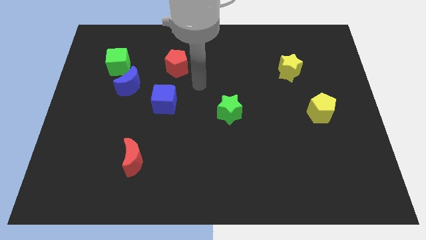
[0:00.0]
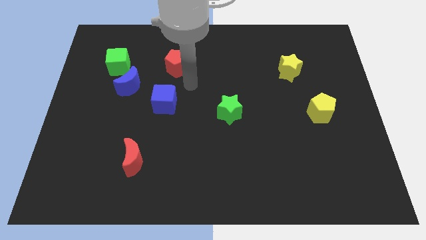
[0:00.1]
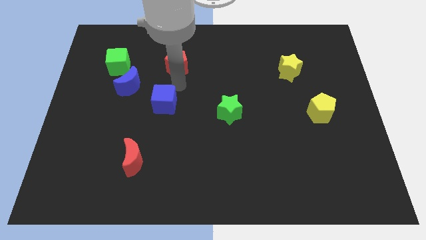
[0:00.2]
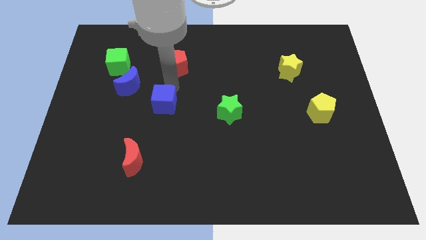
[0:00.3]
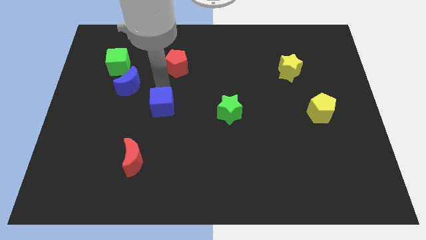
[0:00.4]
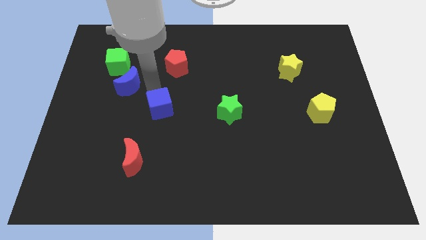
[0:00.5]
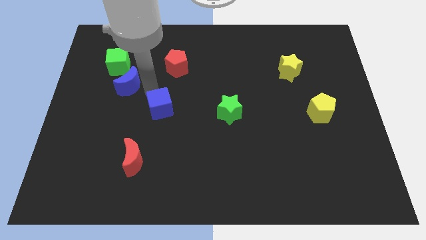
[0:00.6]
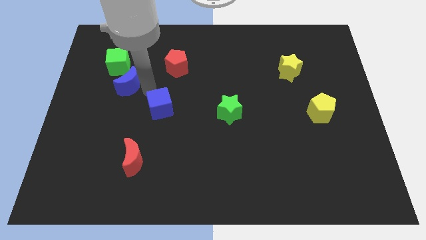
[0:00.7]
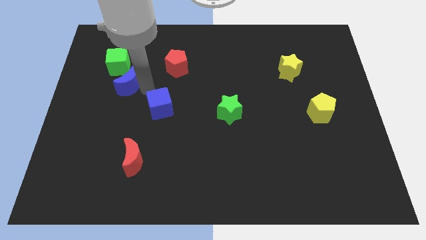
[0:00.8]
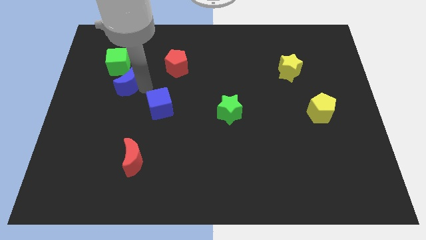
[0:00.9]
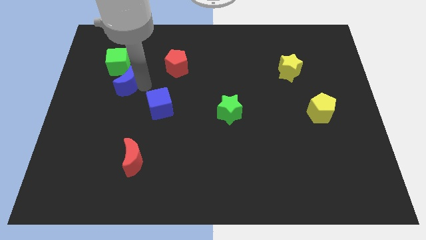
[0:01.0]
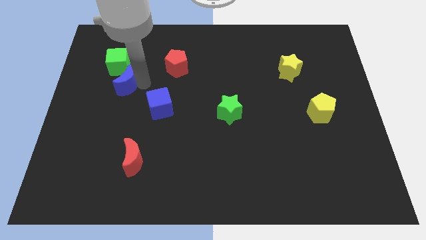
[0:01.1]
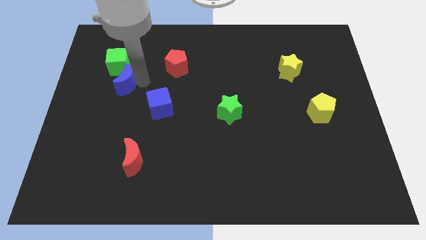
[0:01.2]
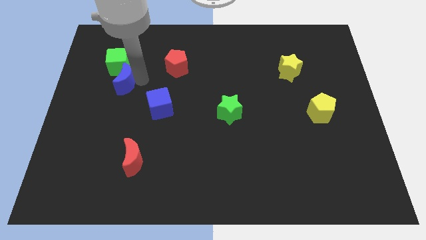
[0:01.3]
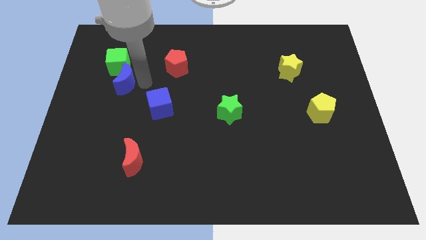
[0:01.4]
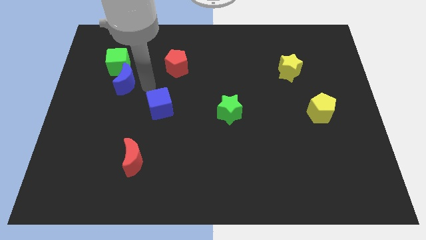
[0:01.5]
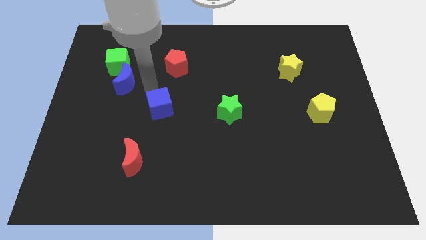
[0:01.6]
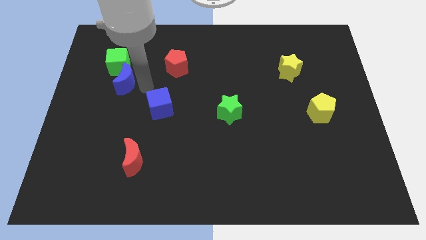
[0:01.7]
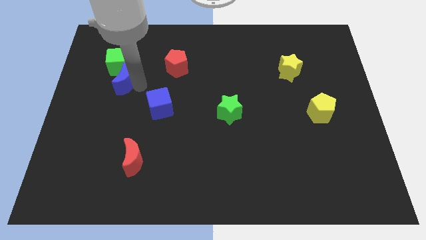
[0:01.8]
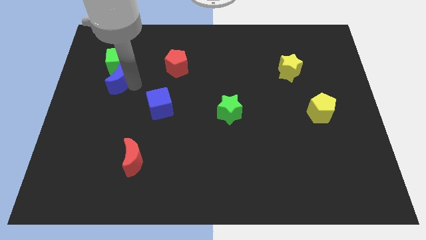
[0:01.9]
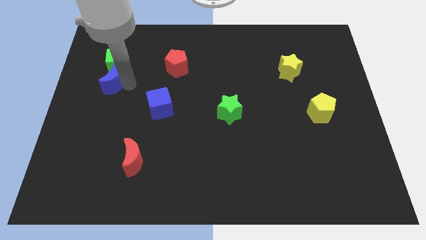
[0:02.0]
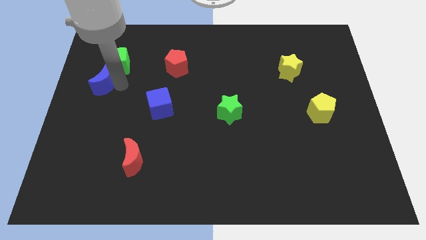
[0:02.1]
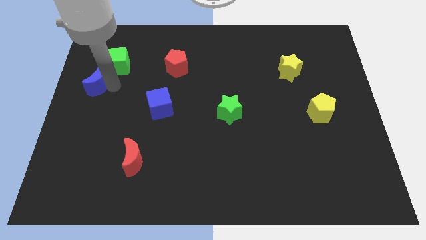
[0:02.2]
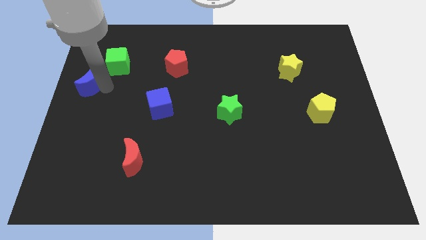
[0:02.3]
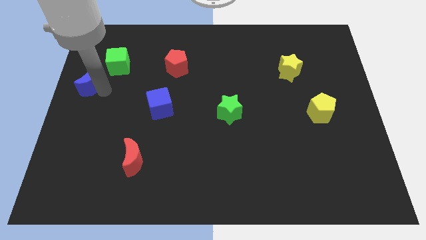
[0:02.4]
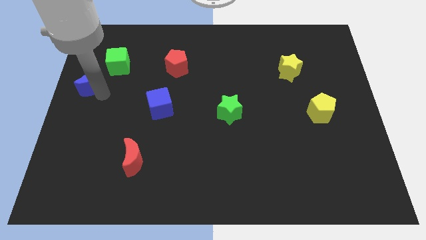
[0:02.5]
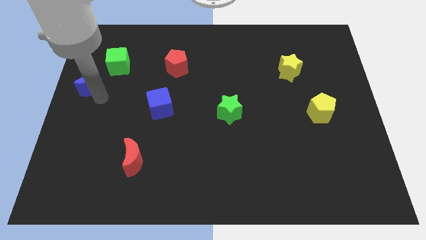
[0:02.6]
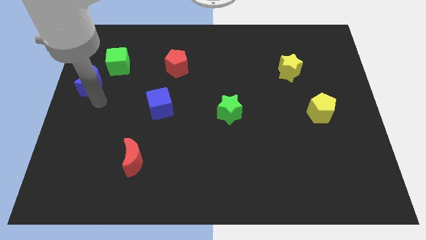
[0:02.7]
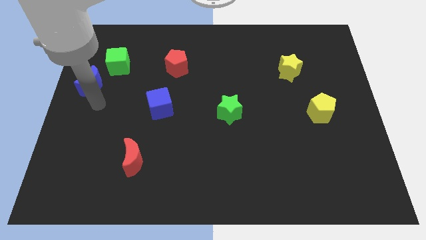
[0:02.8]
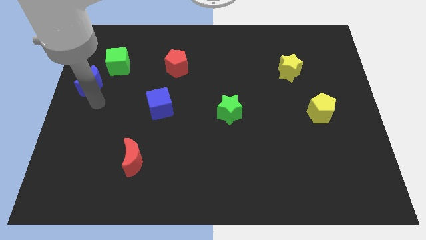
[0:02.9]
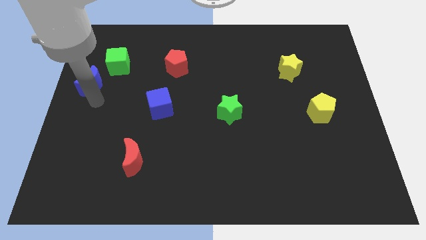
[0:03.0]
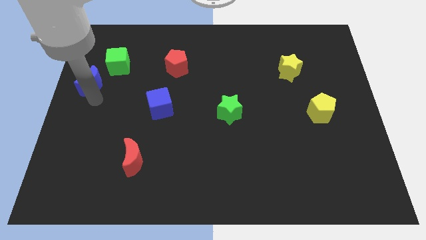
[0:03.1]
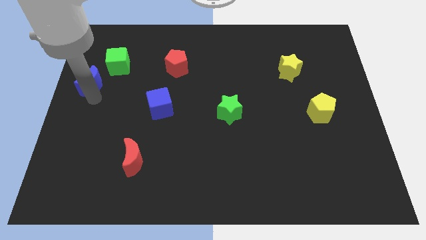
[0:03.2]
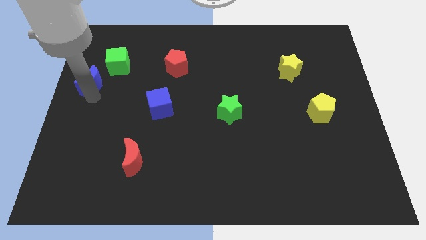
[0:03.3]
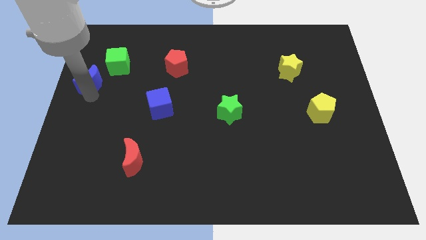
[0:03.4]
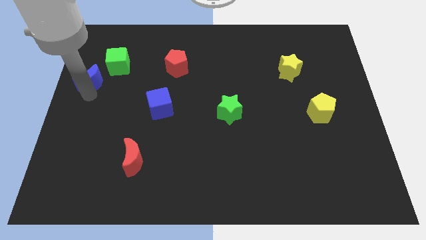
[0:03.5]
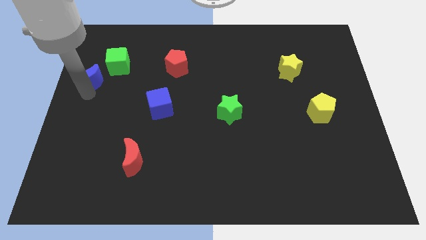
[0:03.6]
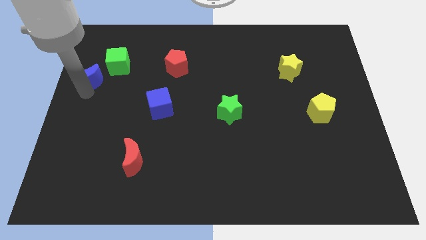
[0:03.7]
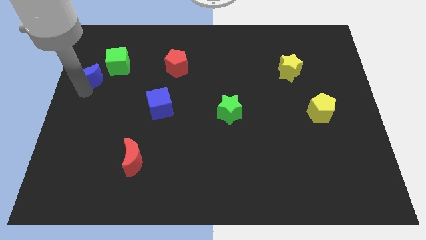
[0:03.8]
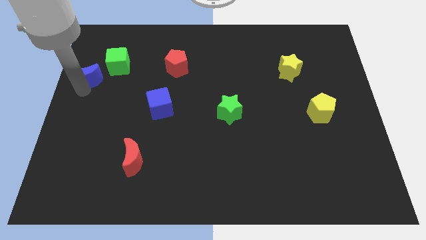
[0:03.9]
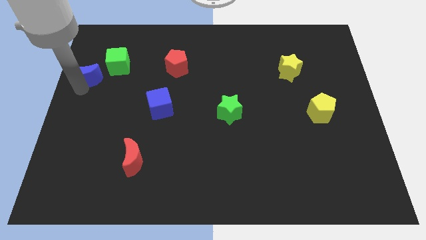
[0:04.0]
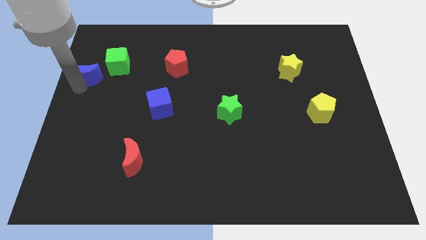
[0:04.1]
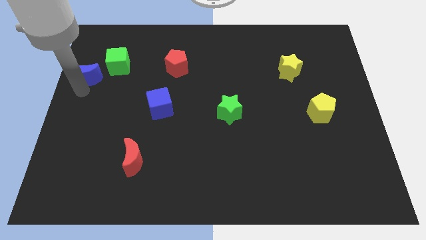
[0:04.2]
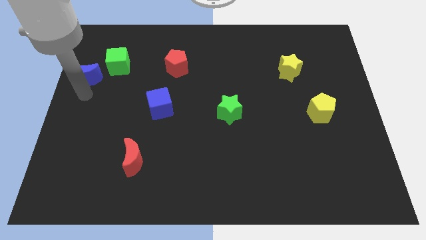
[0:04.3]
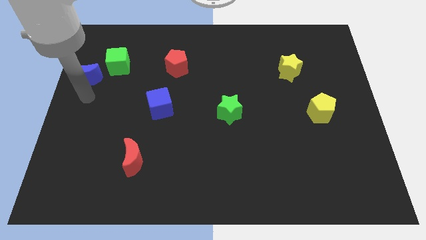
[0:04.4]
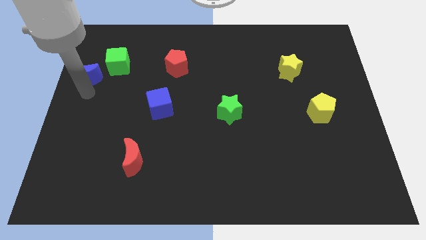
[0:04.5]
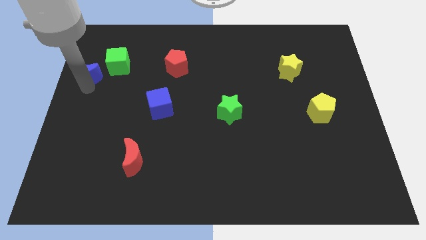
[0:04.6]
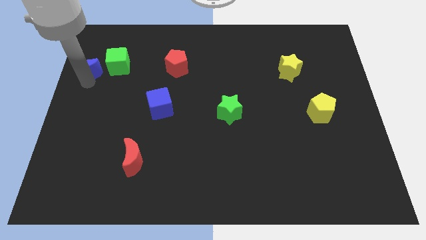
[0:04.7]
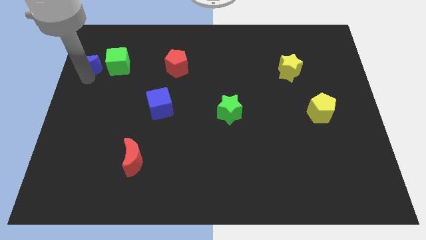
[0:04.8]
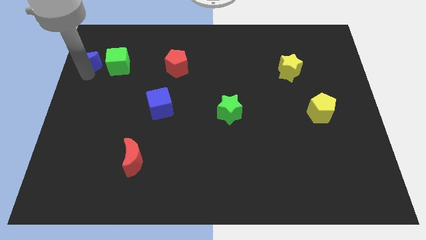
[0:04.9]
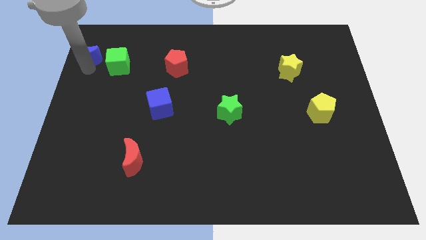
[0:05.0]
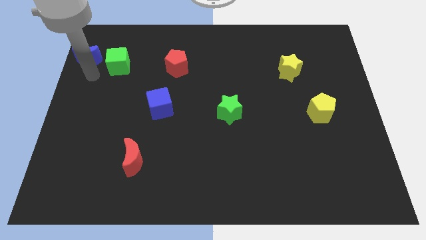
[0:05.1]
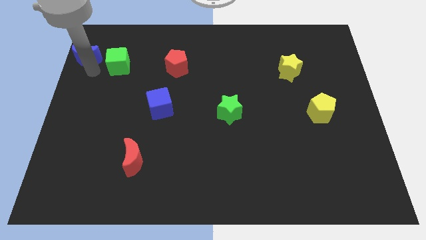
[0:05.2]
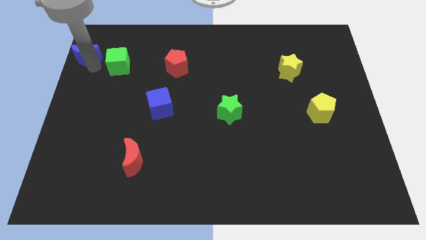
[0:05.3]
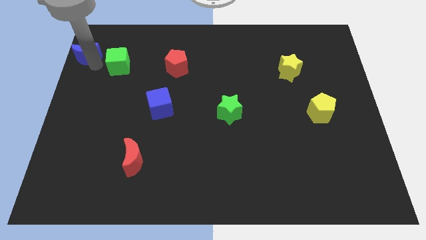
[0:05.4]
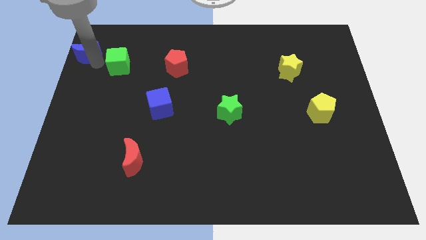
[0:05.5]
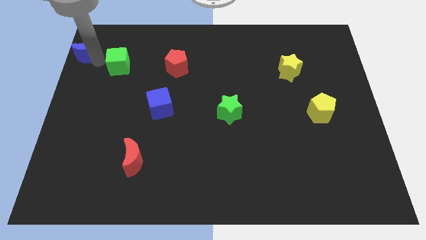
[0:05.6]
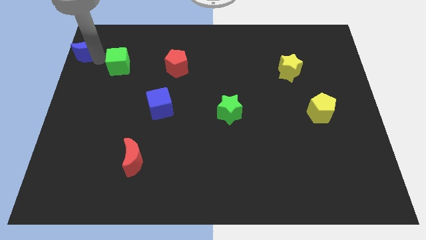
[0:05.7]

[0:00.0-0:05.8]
push the blue moon to the top left

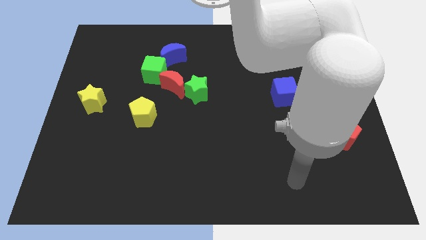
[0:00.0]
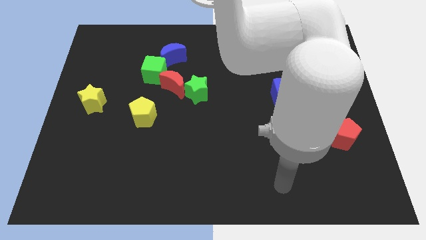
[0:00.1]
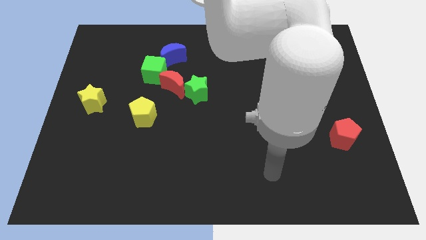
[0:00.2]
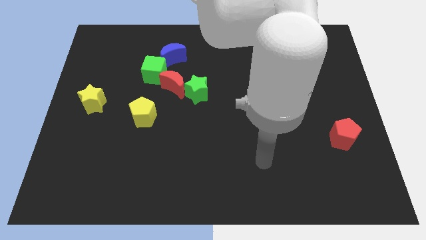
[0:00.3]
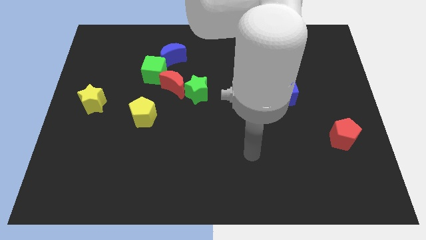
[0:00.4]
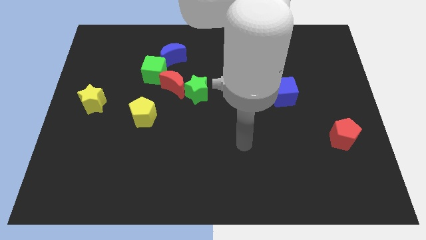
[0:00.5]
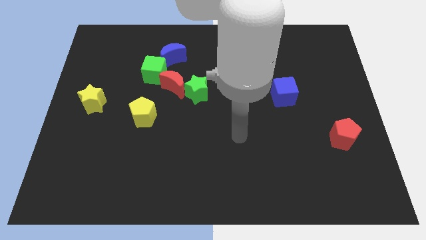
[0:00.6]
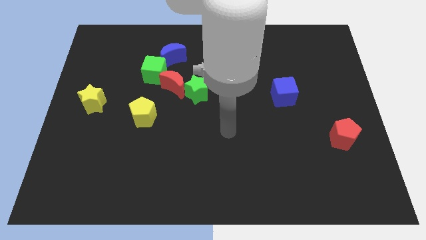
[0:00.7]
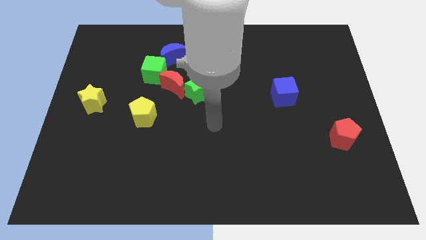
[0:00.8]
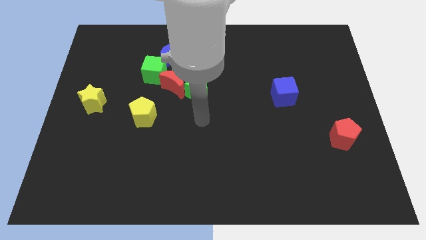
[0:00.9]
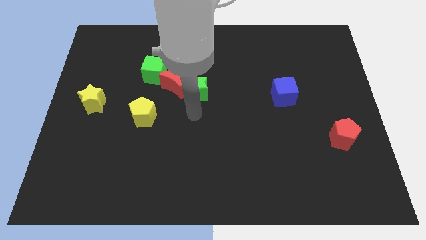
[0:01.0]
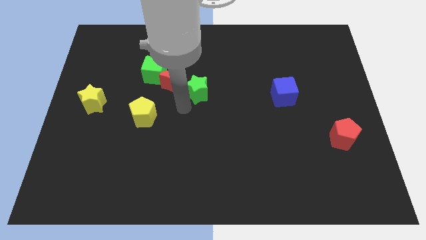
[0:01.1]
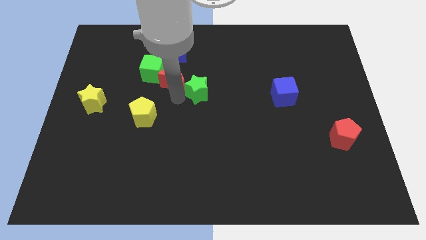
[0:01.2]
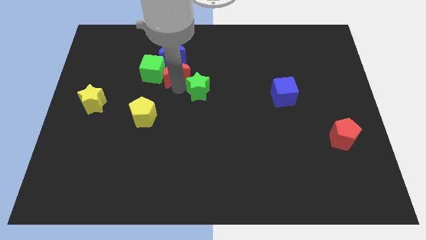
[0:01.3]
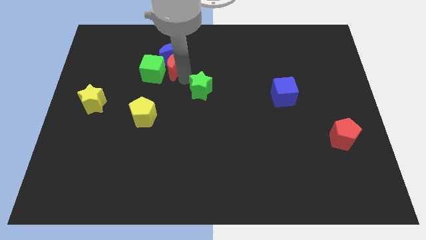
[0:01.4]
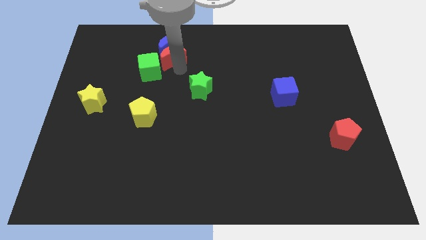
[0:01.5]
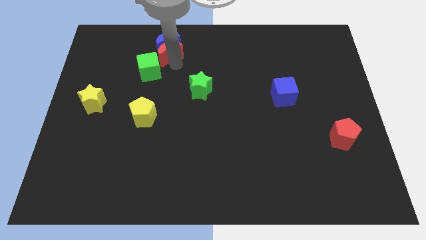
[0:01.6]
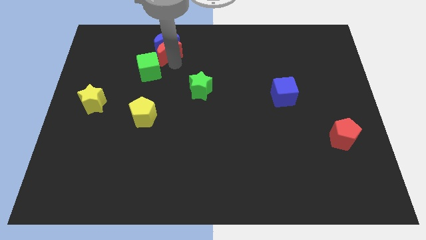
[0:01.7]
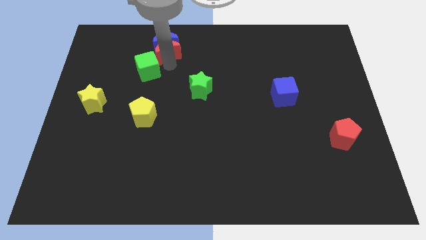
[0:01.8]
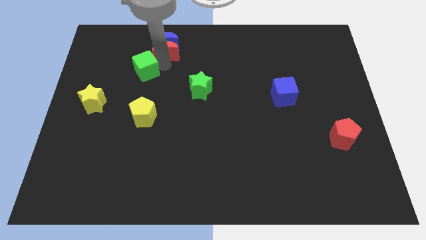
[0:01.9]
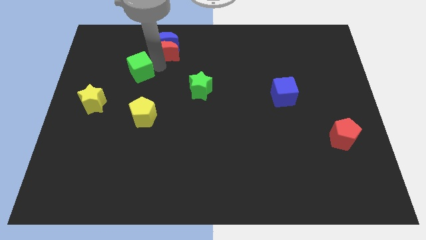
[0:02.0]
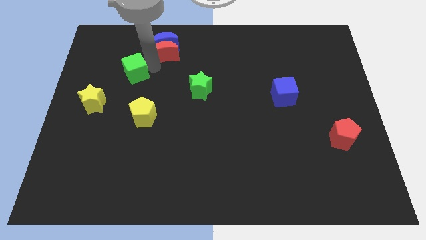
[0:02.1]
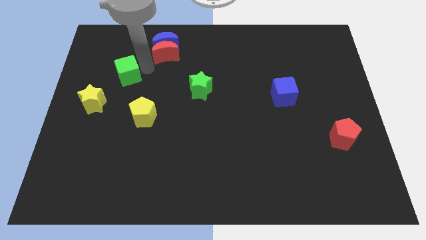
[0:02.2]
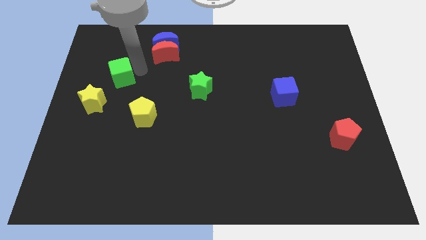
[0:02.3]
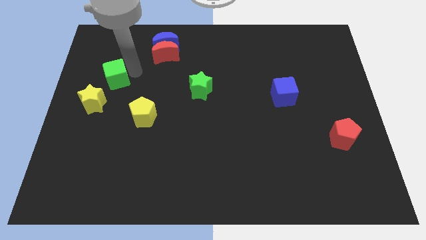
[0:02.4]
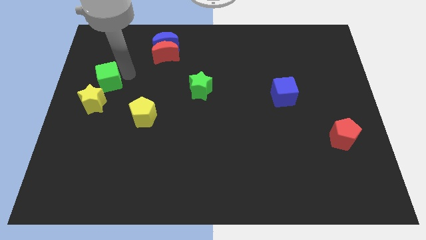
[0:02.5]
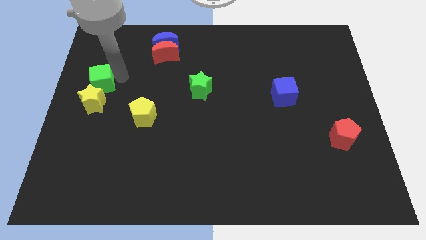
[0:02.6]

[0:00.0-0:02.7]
move the green cube to the left side
